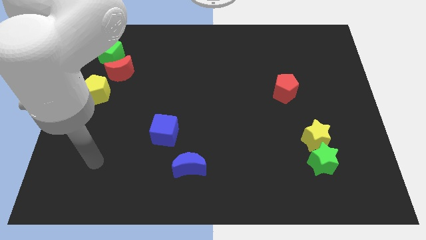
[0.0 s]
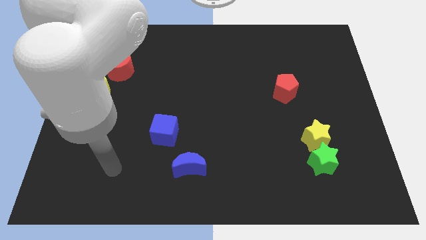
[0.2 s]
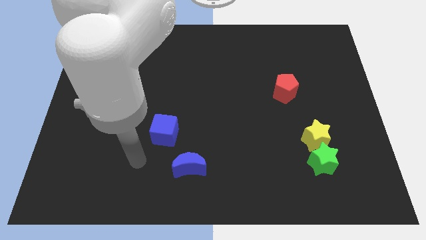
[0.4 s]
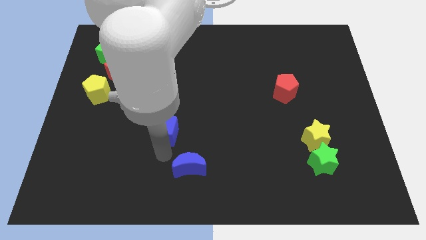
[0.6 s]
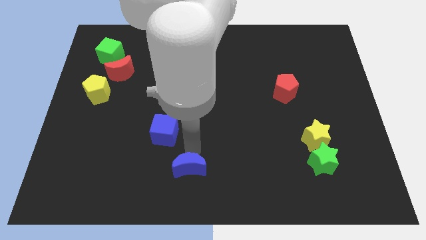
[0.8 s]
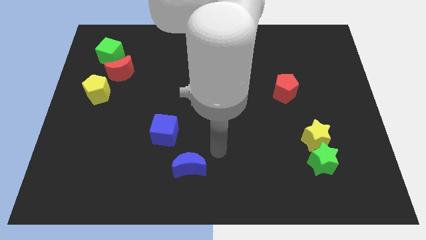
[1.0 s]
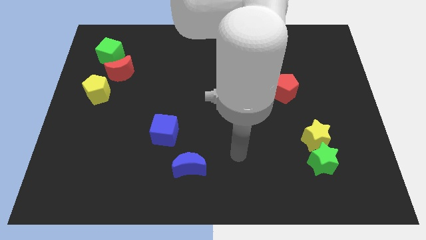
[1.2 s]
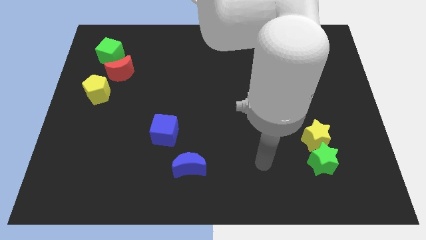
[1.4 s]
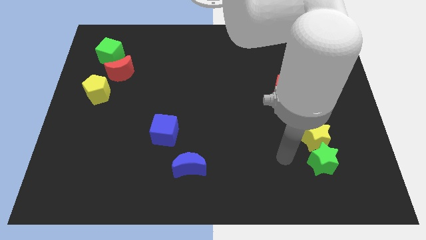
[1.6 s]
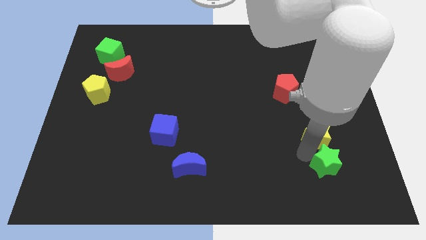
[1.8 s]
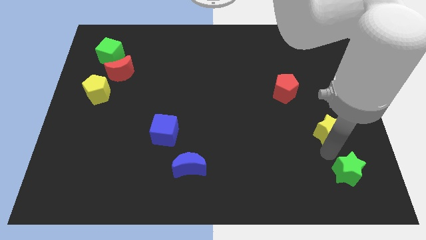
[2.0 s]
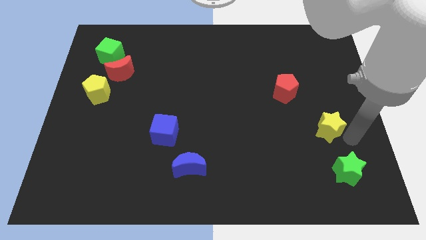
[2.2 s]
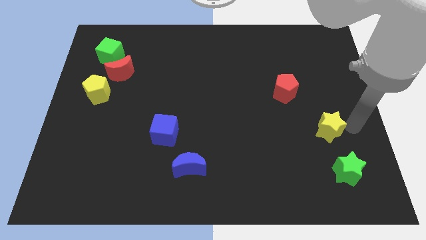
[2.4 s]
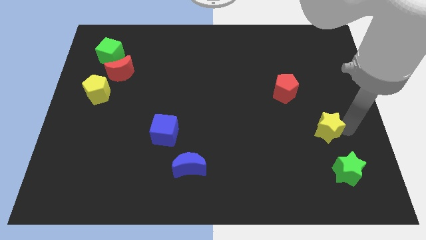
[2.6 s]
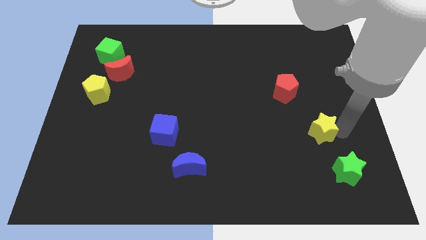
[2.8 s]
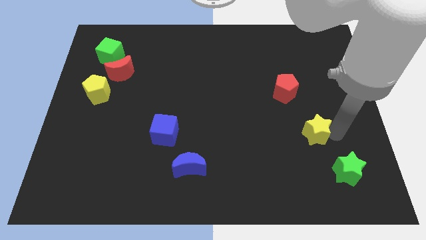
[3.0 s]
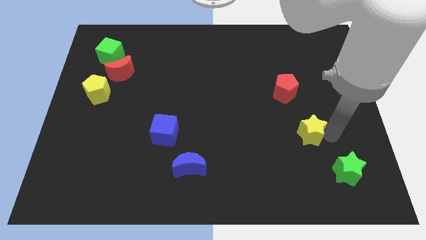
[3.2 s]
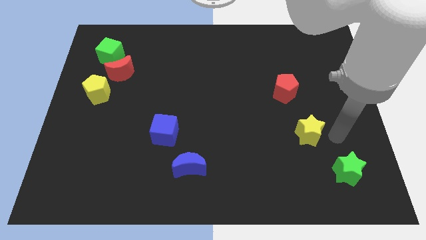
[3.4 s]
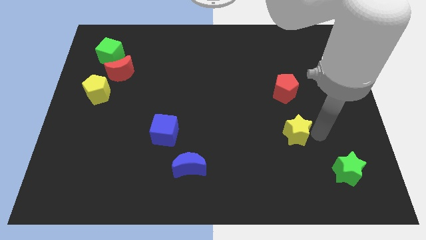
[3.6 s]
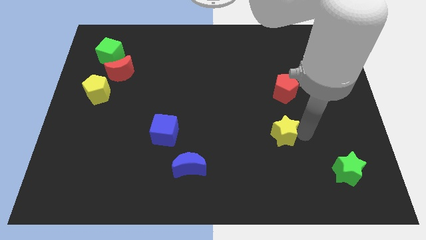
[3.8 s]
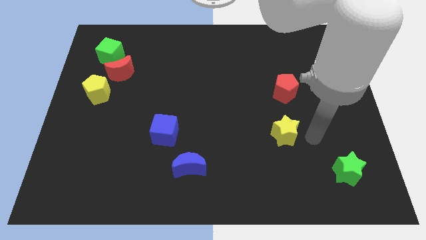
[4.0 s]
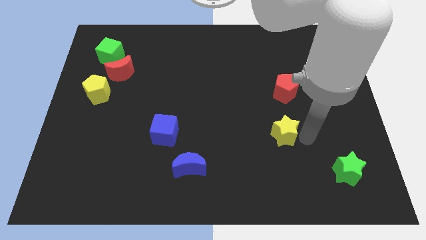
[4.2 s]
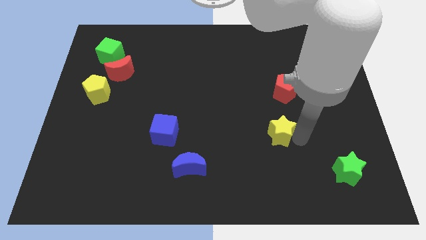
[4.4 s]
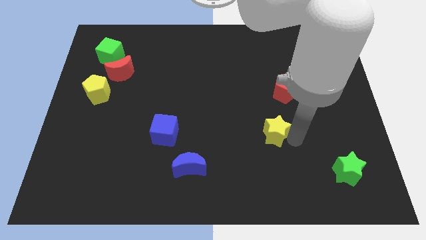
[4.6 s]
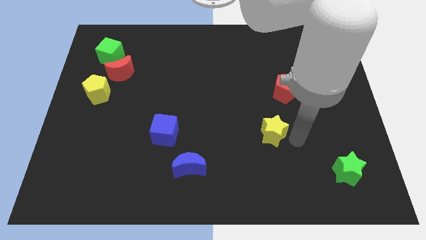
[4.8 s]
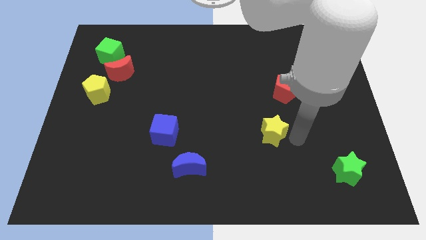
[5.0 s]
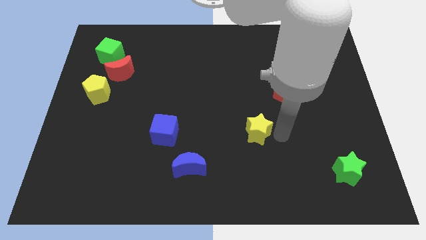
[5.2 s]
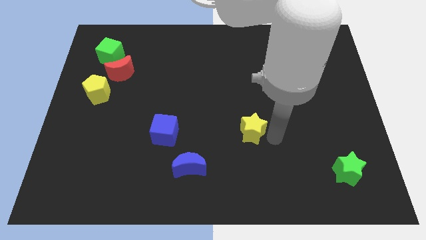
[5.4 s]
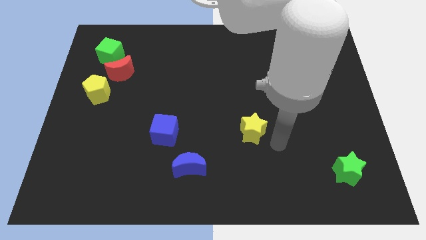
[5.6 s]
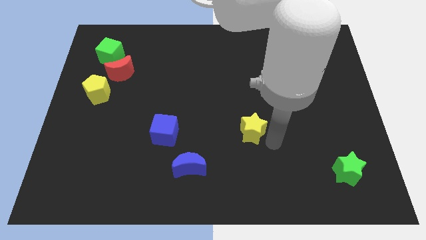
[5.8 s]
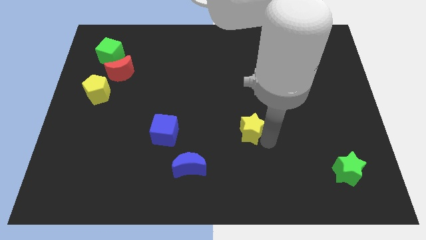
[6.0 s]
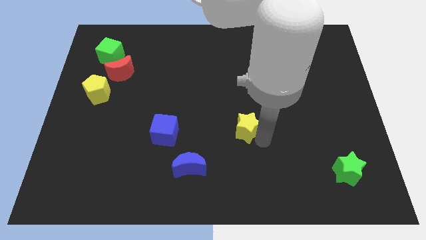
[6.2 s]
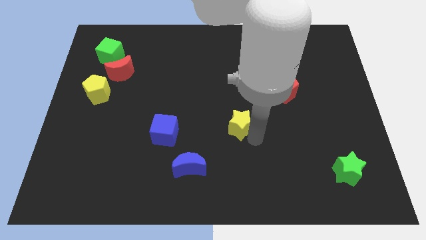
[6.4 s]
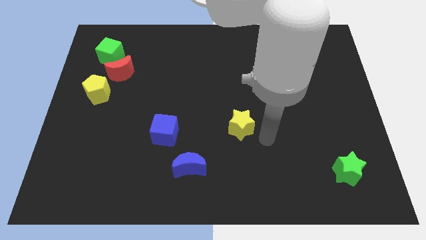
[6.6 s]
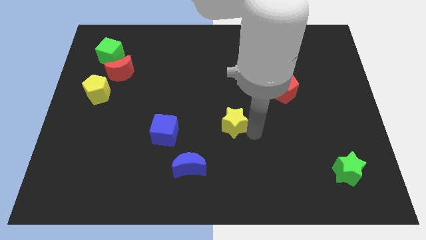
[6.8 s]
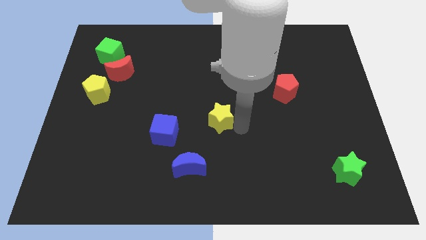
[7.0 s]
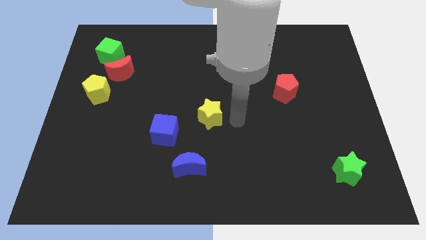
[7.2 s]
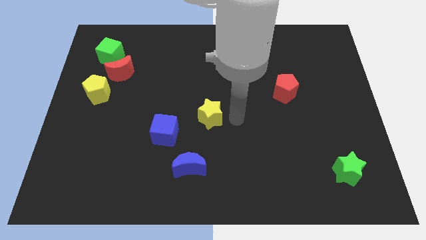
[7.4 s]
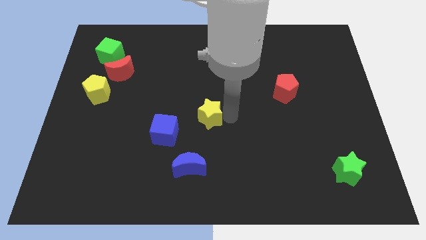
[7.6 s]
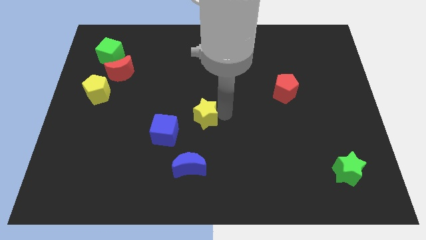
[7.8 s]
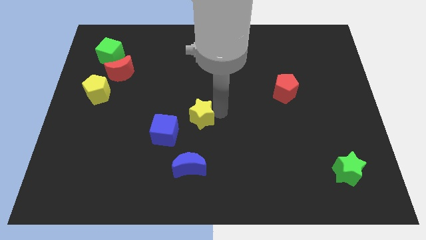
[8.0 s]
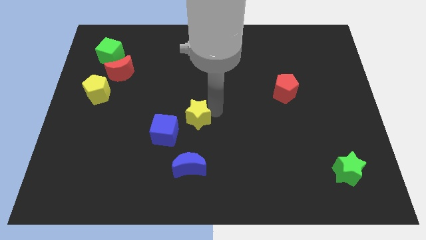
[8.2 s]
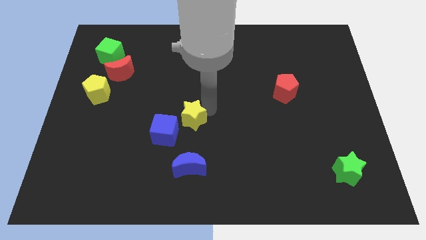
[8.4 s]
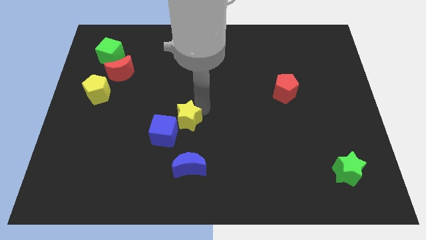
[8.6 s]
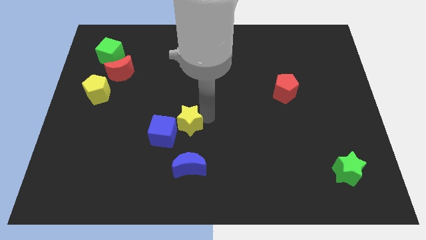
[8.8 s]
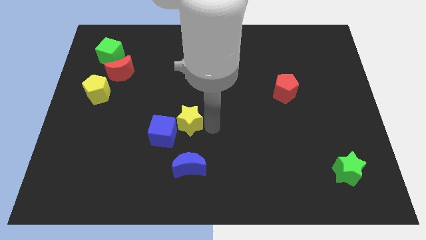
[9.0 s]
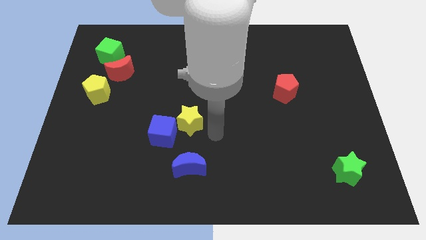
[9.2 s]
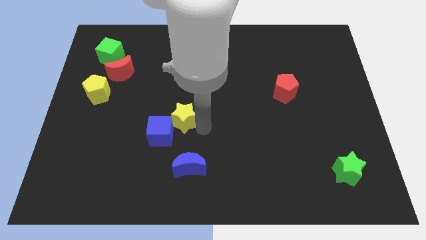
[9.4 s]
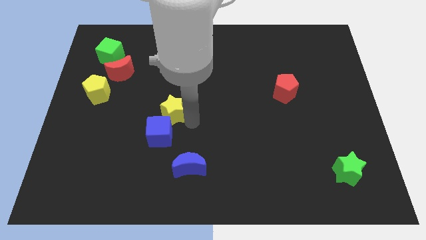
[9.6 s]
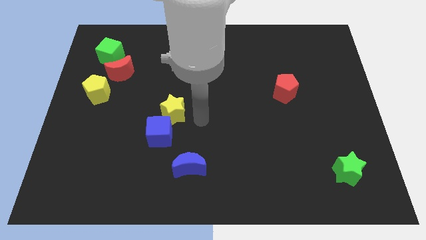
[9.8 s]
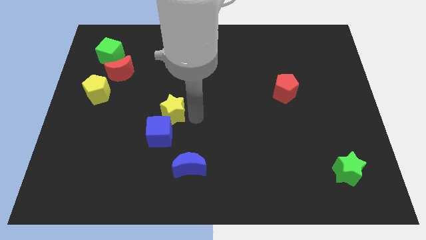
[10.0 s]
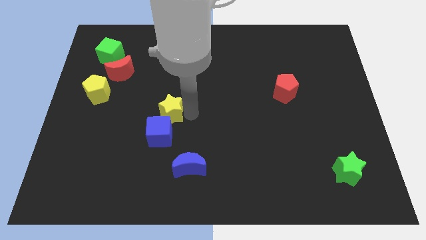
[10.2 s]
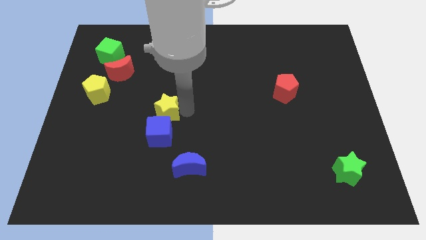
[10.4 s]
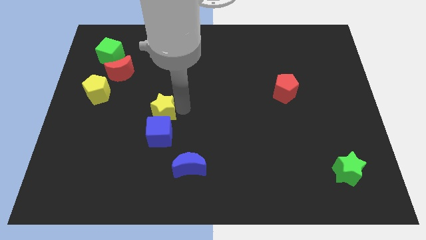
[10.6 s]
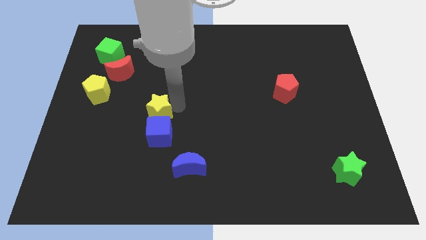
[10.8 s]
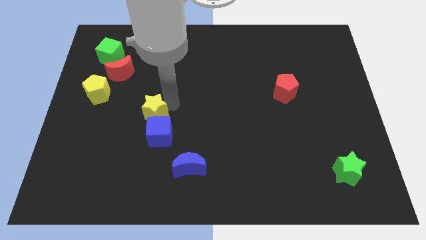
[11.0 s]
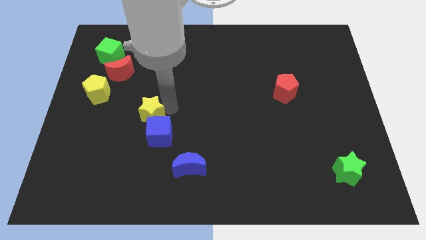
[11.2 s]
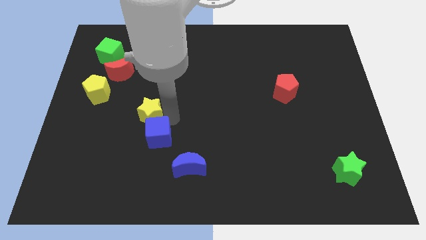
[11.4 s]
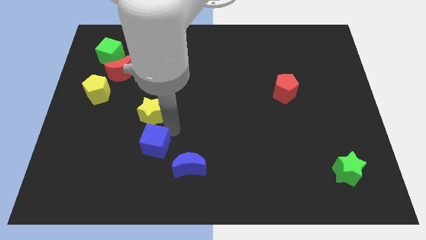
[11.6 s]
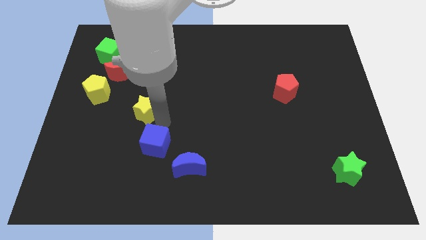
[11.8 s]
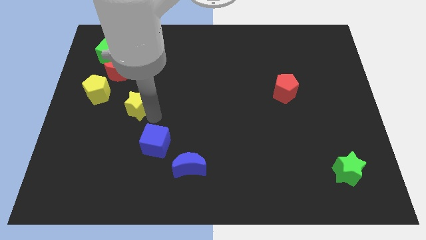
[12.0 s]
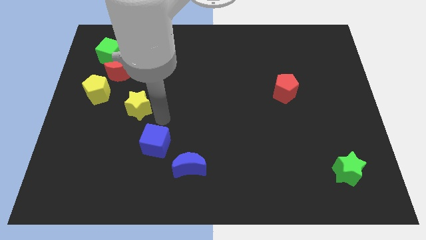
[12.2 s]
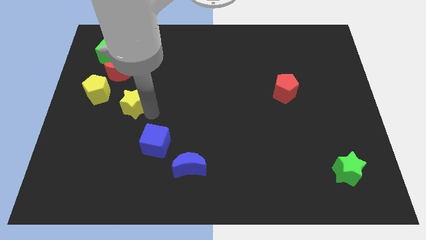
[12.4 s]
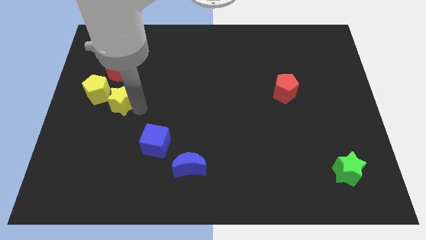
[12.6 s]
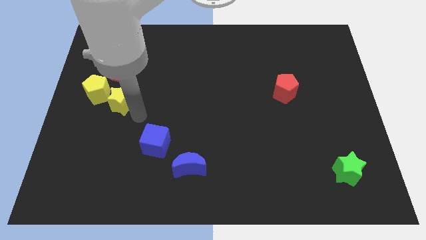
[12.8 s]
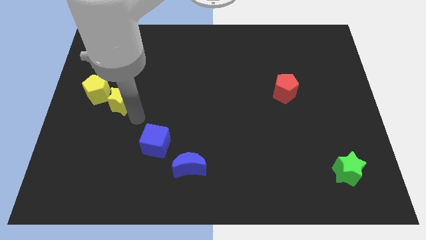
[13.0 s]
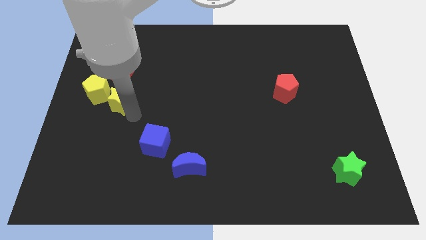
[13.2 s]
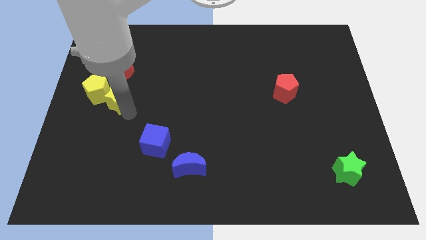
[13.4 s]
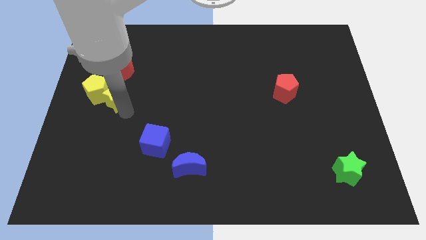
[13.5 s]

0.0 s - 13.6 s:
slide the yellow star next to the yellow pentagon
